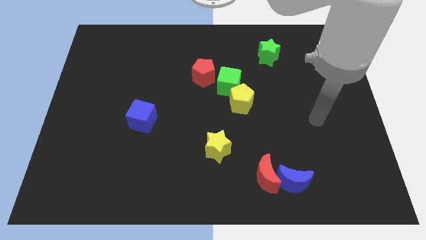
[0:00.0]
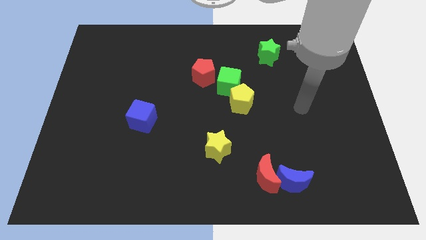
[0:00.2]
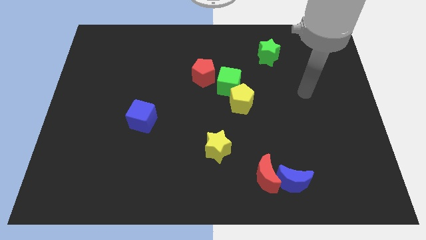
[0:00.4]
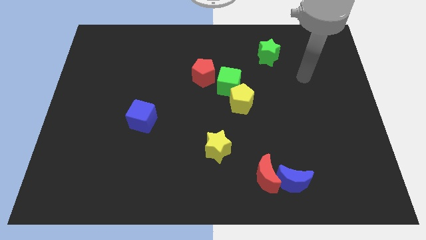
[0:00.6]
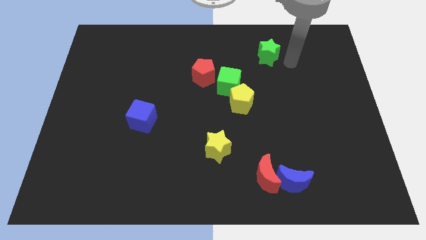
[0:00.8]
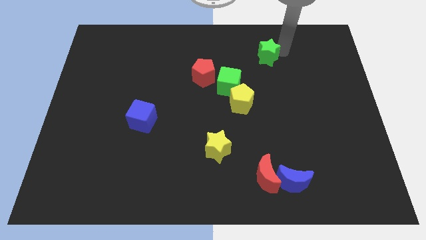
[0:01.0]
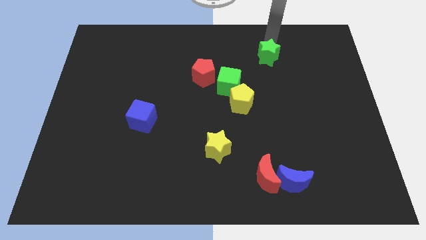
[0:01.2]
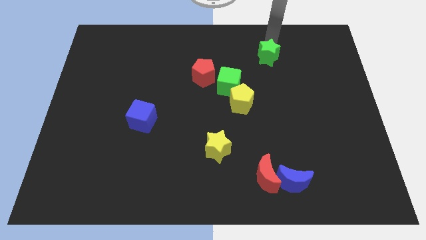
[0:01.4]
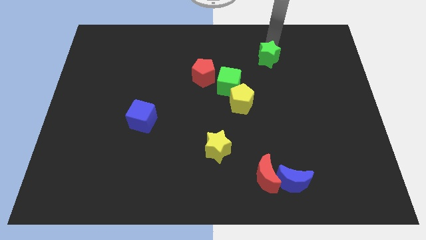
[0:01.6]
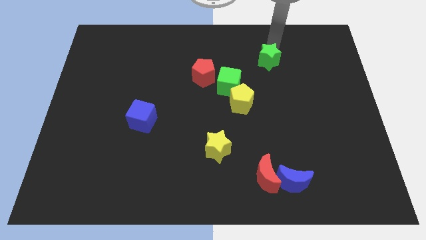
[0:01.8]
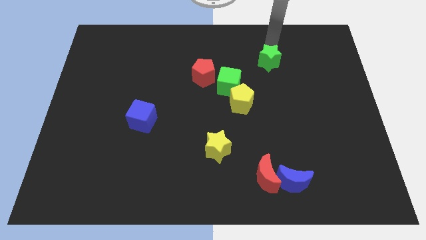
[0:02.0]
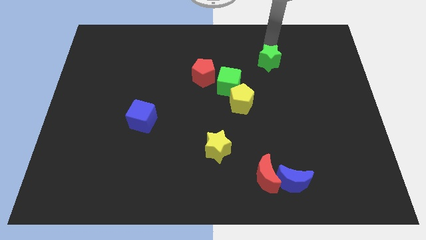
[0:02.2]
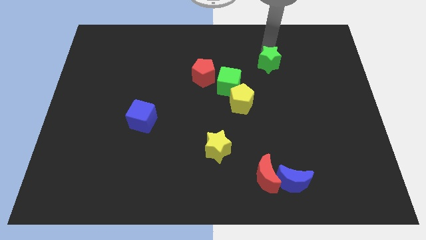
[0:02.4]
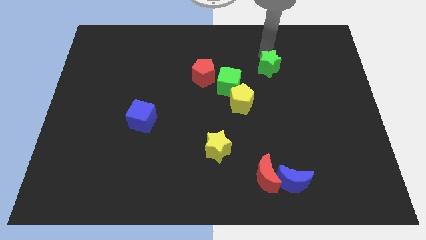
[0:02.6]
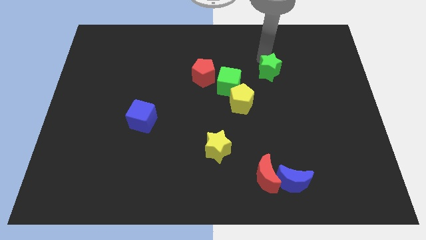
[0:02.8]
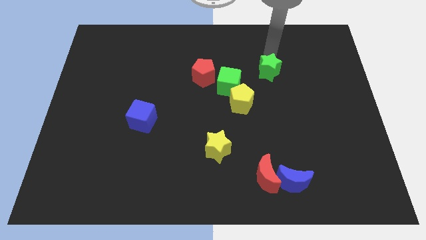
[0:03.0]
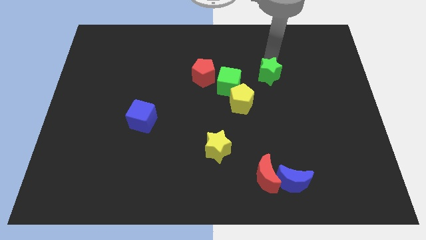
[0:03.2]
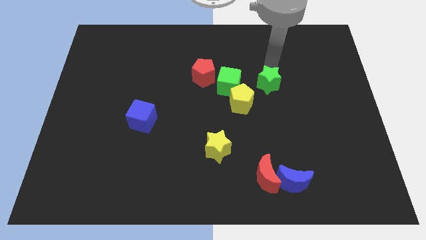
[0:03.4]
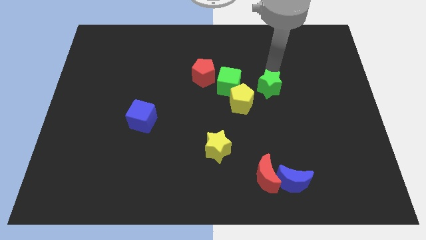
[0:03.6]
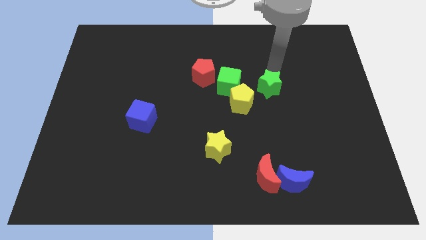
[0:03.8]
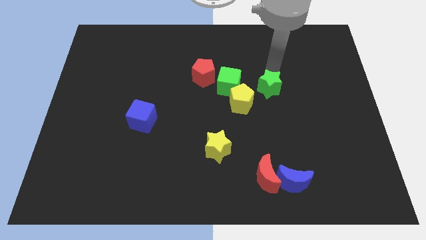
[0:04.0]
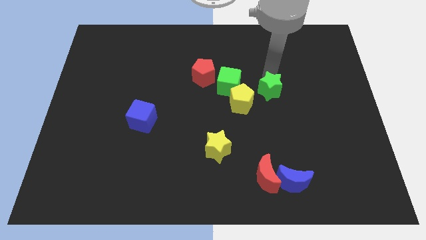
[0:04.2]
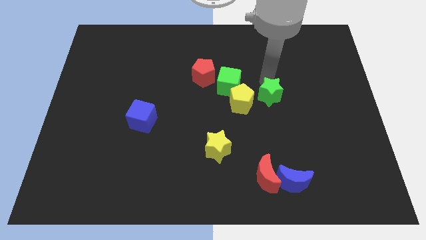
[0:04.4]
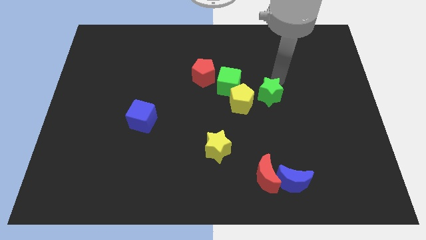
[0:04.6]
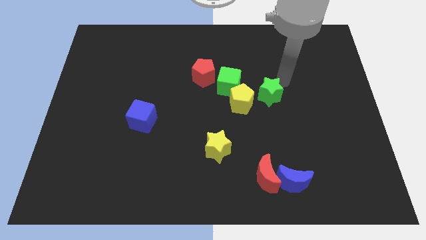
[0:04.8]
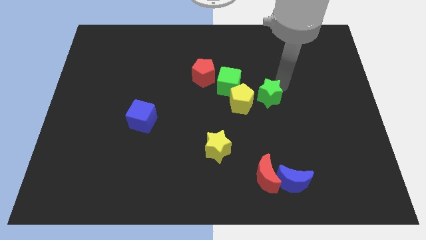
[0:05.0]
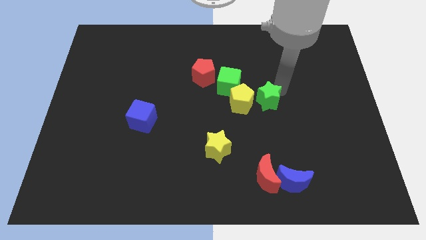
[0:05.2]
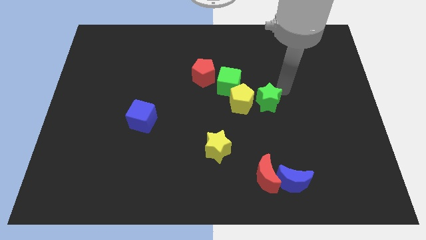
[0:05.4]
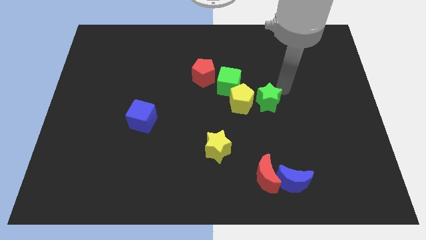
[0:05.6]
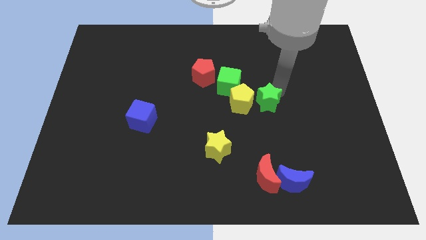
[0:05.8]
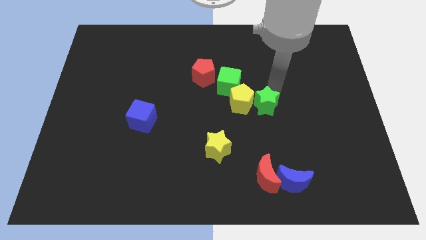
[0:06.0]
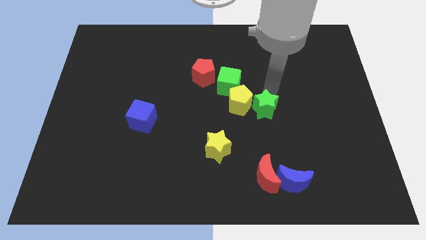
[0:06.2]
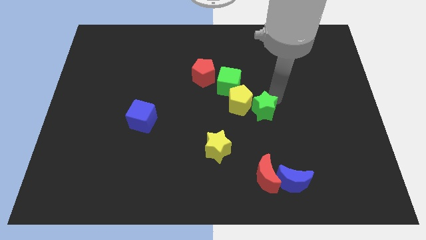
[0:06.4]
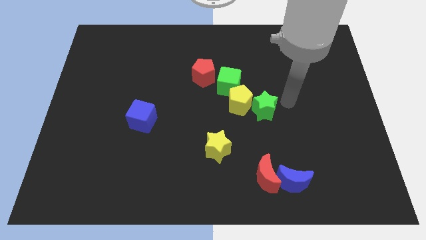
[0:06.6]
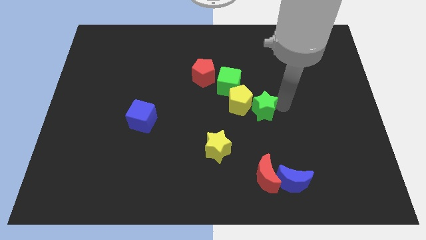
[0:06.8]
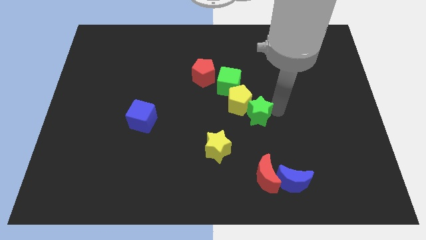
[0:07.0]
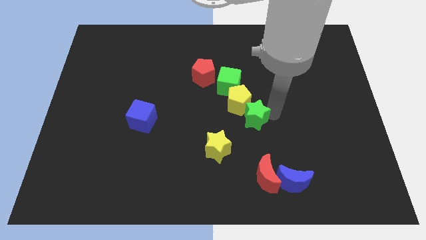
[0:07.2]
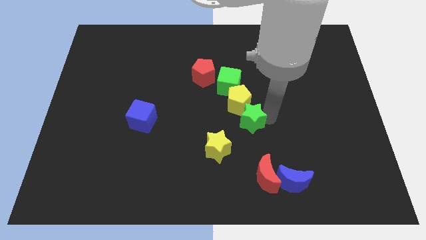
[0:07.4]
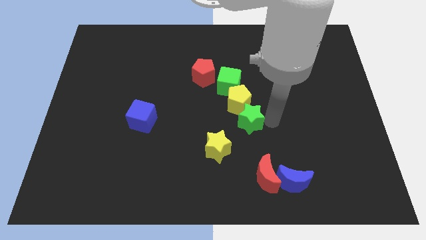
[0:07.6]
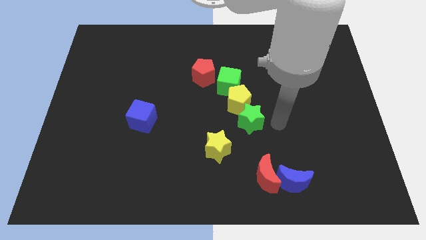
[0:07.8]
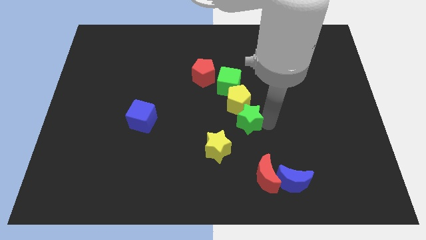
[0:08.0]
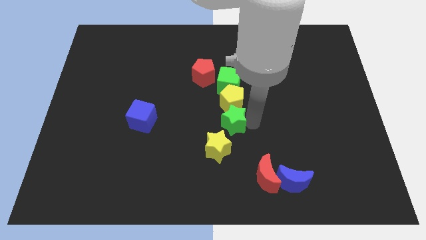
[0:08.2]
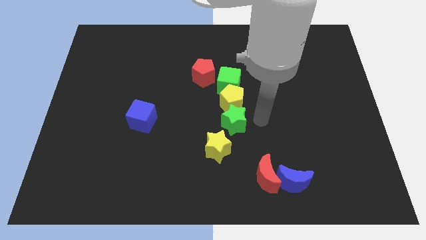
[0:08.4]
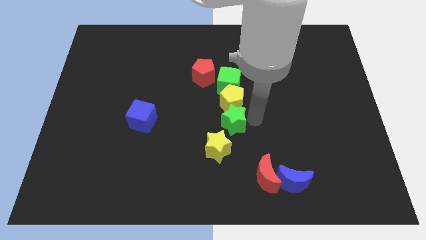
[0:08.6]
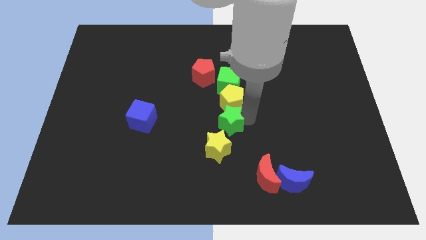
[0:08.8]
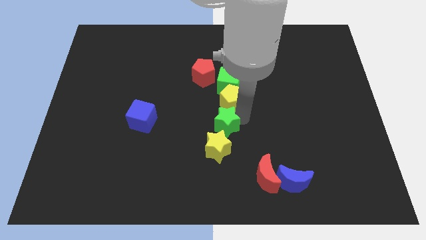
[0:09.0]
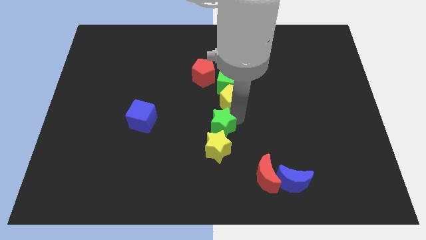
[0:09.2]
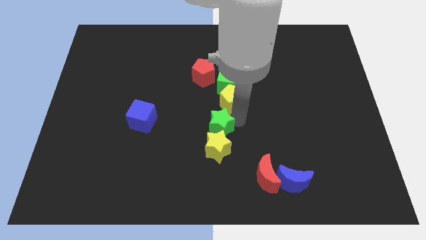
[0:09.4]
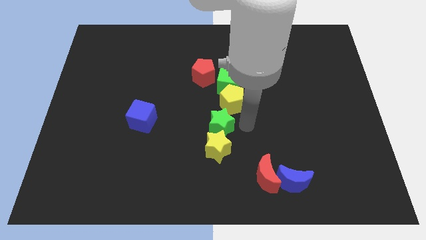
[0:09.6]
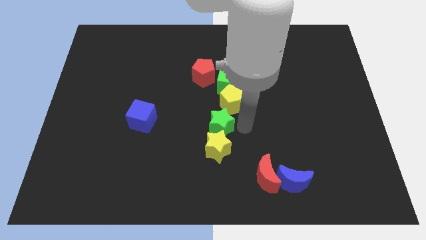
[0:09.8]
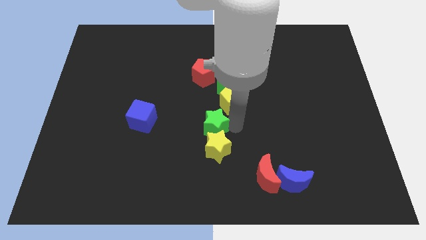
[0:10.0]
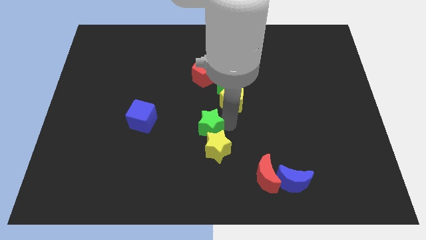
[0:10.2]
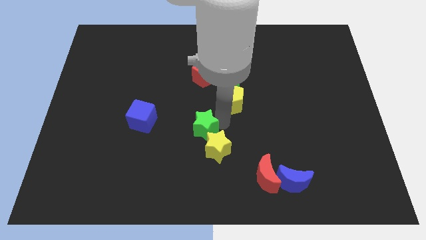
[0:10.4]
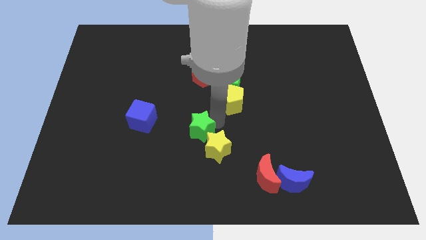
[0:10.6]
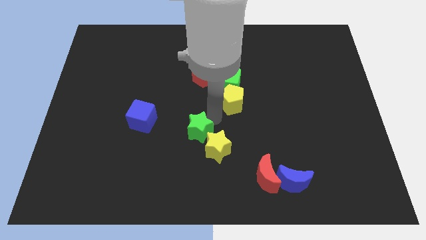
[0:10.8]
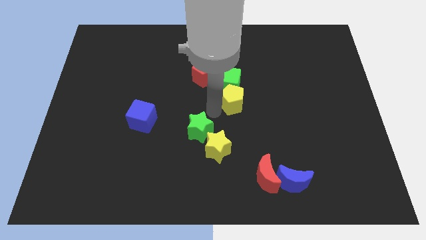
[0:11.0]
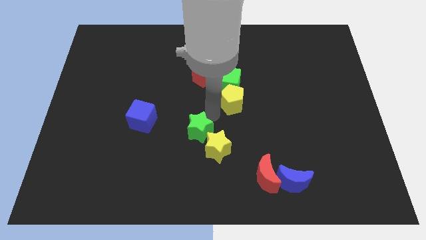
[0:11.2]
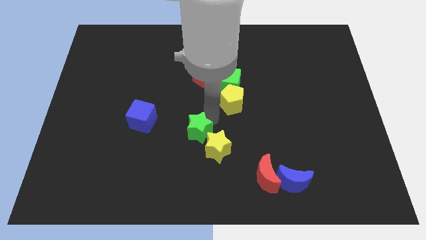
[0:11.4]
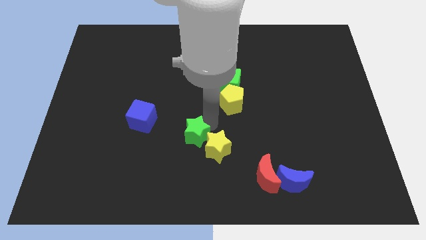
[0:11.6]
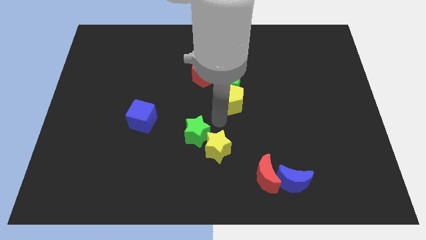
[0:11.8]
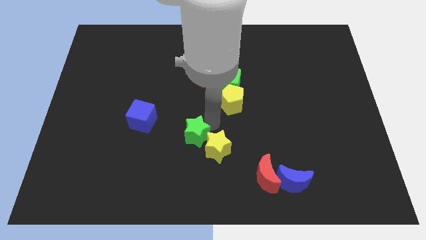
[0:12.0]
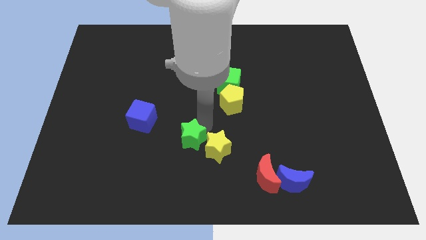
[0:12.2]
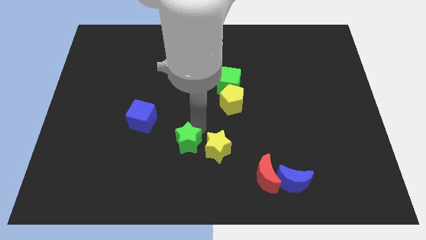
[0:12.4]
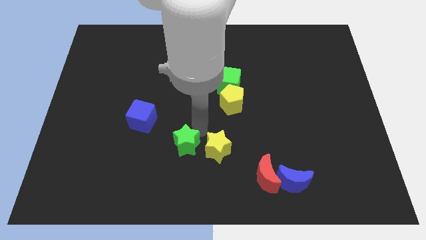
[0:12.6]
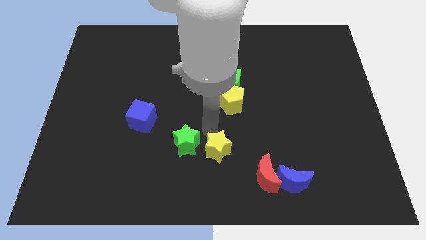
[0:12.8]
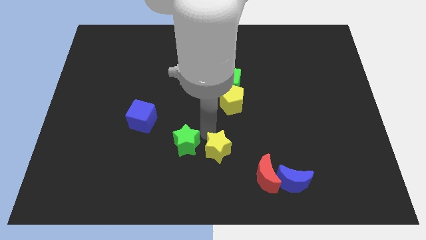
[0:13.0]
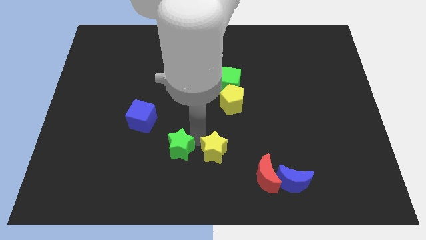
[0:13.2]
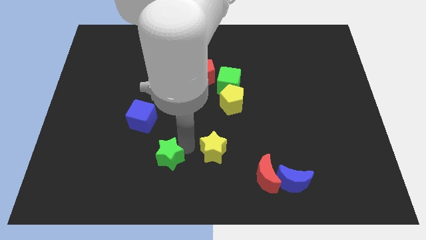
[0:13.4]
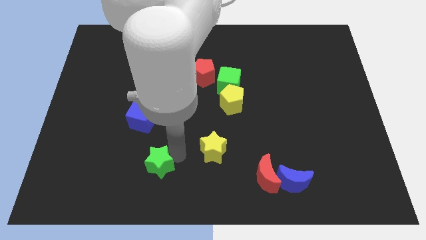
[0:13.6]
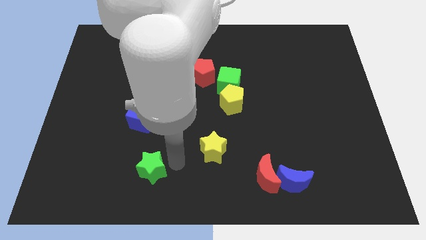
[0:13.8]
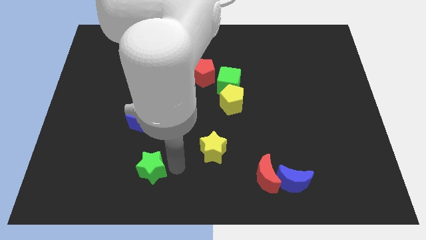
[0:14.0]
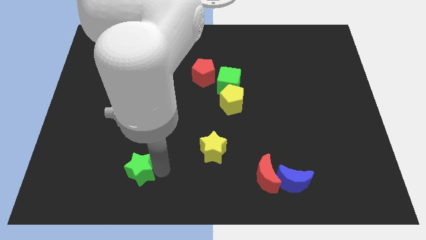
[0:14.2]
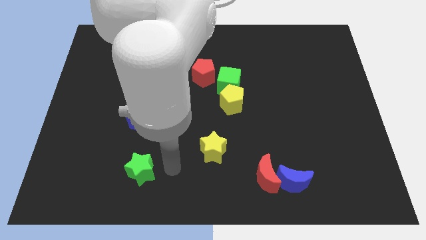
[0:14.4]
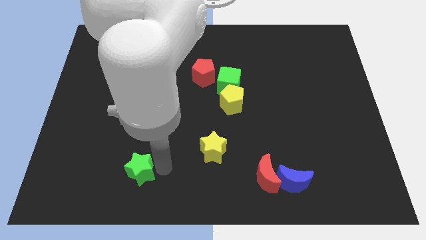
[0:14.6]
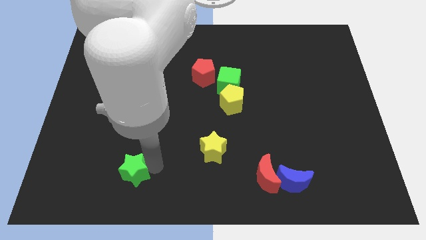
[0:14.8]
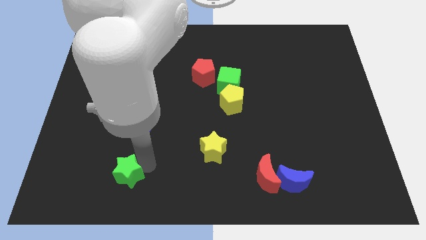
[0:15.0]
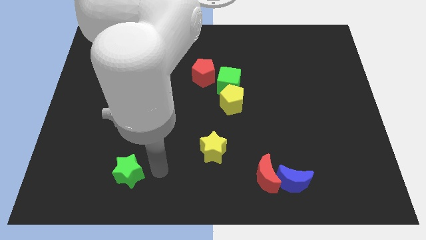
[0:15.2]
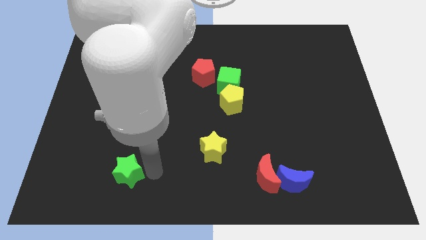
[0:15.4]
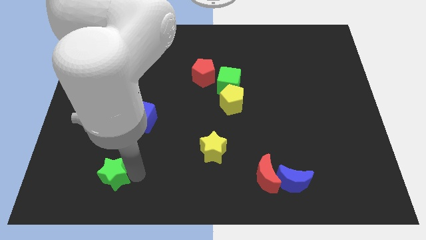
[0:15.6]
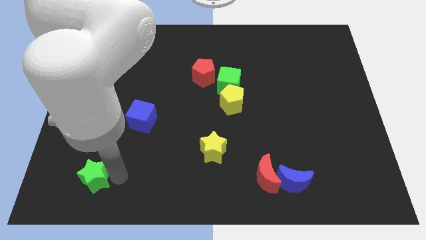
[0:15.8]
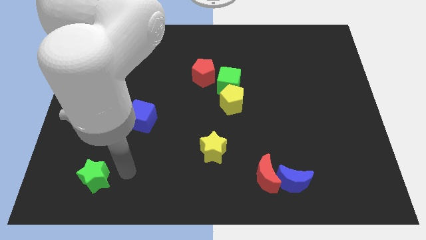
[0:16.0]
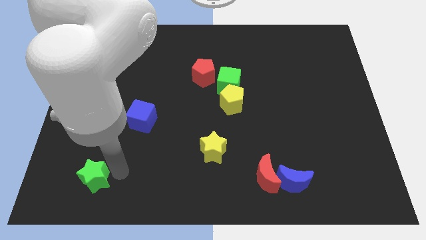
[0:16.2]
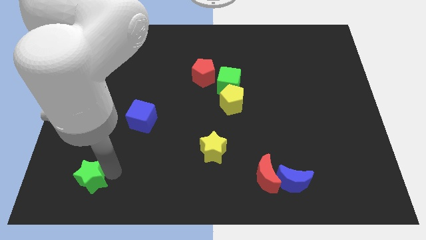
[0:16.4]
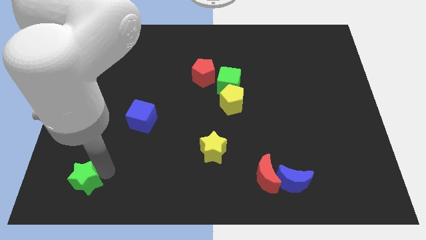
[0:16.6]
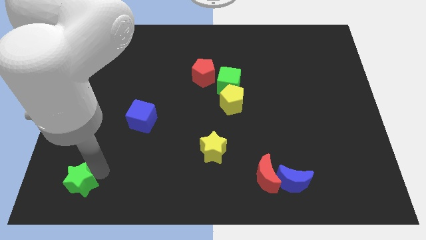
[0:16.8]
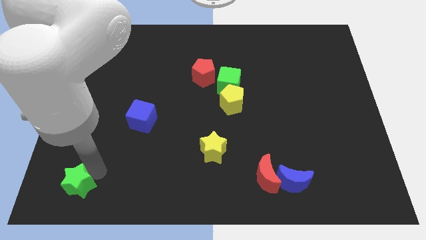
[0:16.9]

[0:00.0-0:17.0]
push the green star to the bottom left corner
